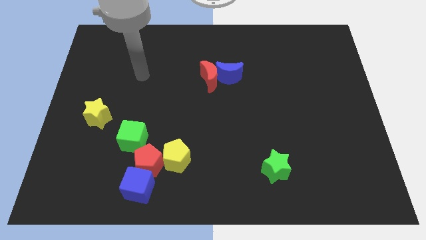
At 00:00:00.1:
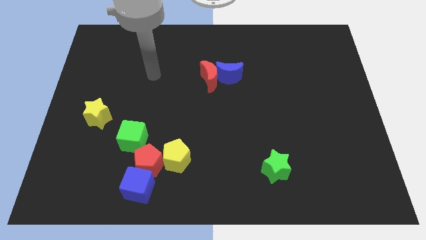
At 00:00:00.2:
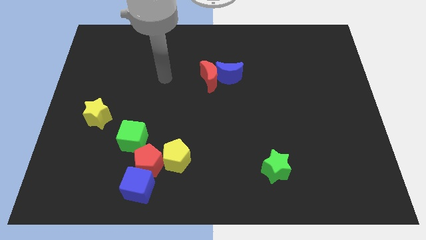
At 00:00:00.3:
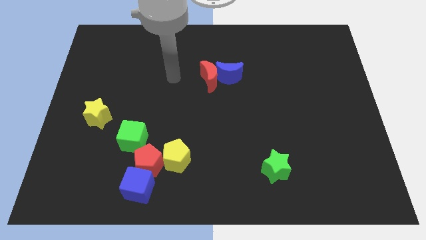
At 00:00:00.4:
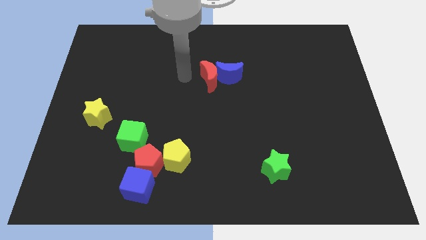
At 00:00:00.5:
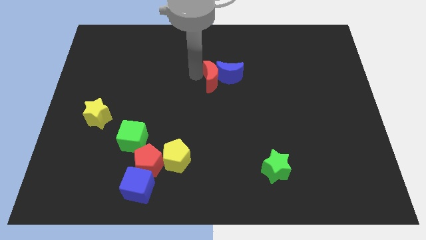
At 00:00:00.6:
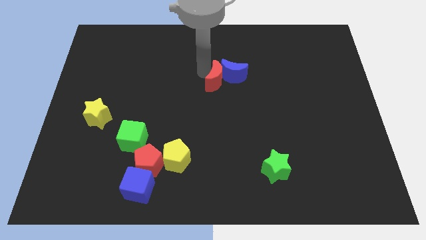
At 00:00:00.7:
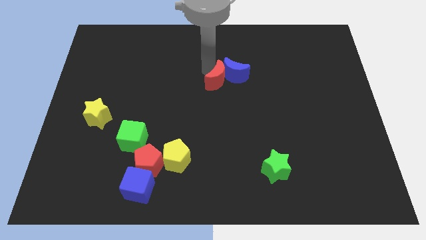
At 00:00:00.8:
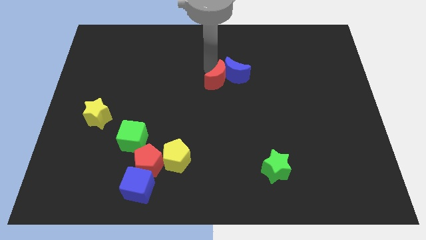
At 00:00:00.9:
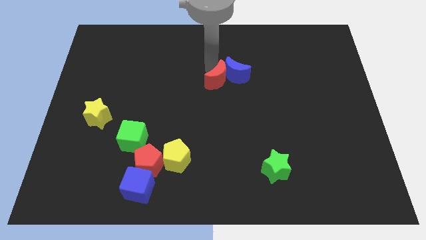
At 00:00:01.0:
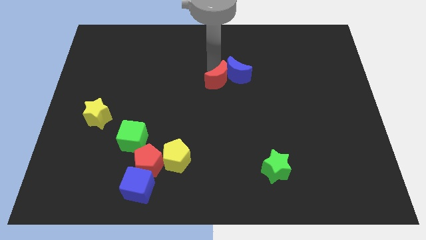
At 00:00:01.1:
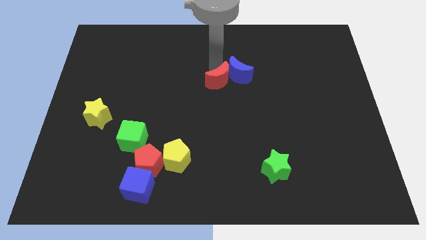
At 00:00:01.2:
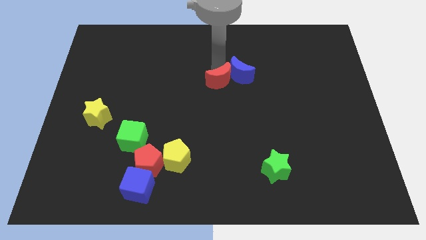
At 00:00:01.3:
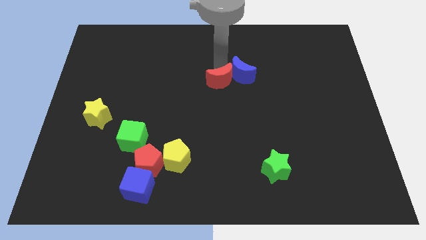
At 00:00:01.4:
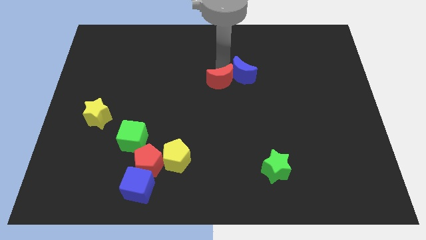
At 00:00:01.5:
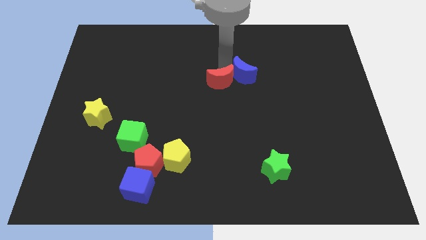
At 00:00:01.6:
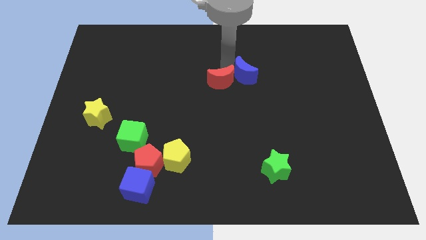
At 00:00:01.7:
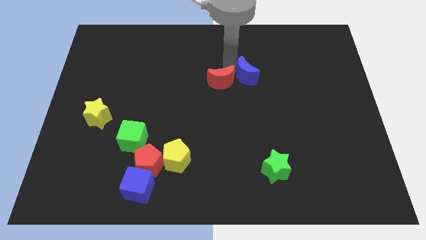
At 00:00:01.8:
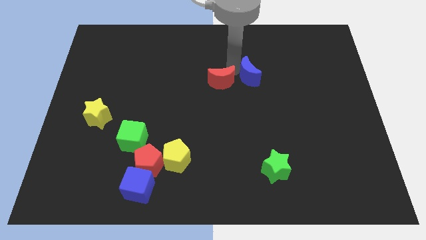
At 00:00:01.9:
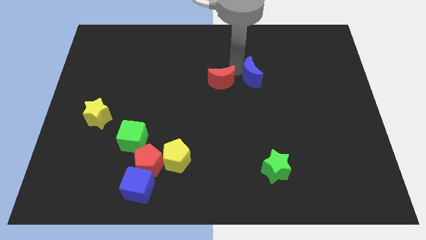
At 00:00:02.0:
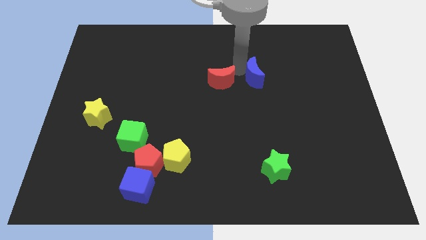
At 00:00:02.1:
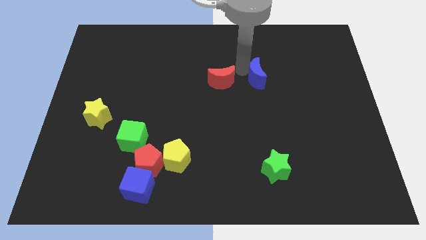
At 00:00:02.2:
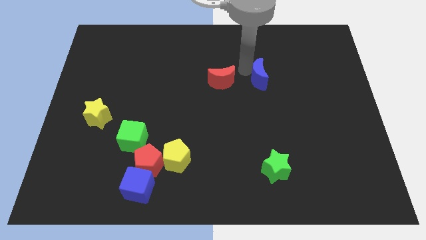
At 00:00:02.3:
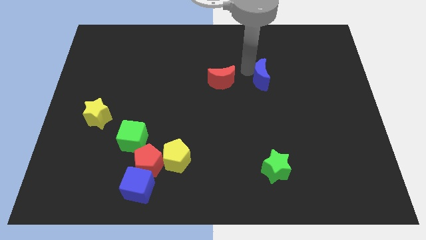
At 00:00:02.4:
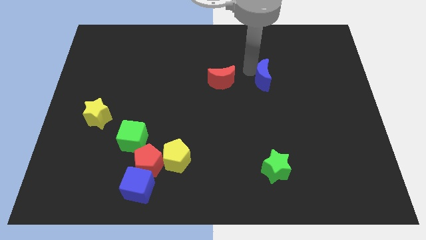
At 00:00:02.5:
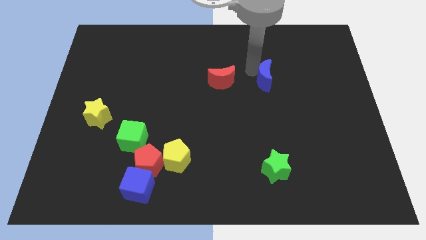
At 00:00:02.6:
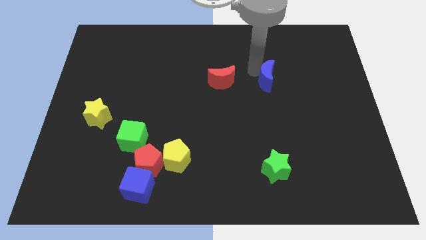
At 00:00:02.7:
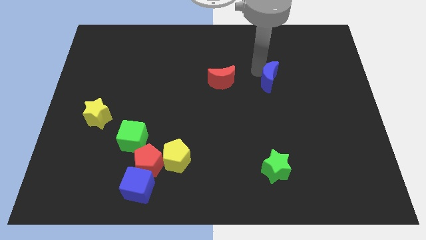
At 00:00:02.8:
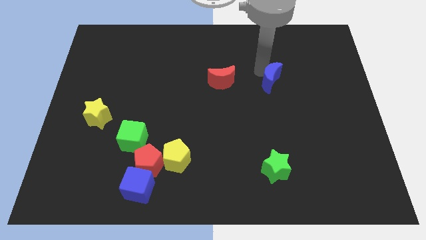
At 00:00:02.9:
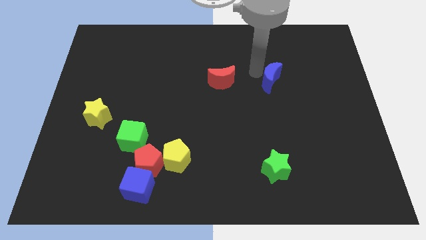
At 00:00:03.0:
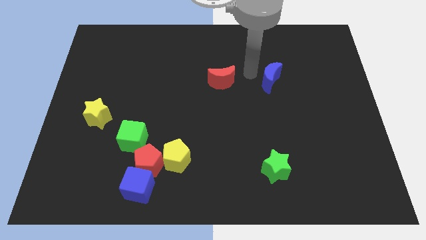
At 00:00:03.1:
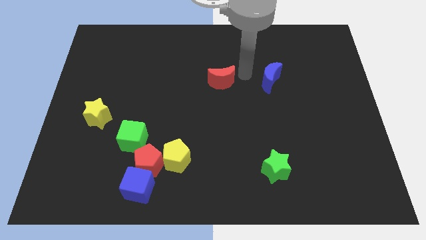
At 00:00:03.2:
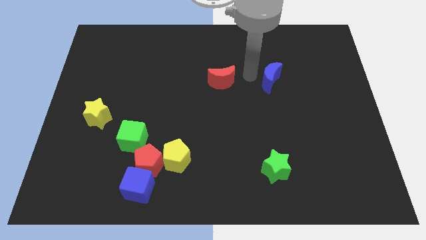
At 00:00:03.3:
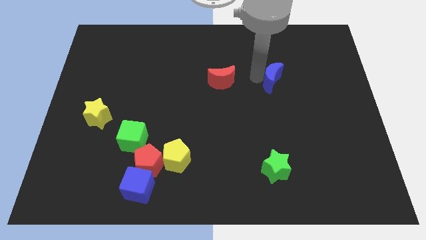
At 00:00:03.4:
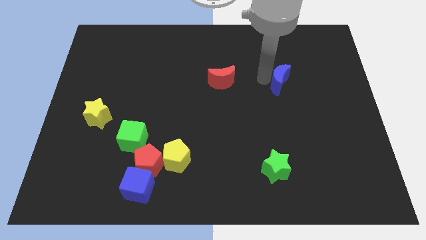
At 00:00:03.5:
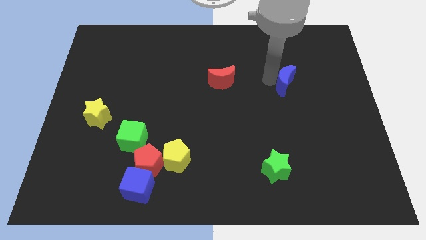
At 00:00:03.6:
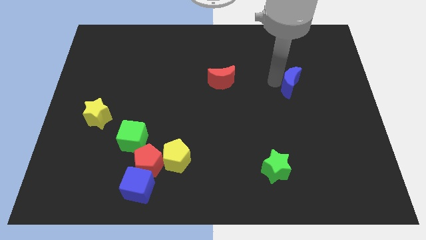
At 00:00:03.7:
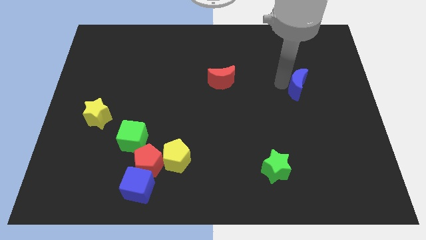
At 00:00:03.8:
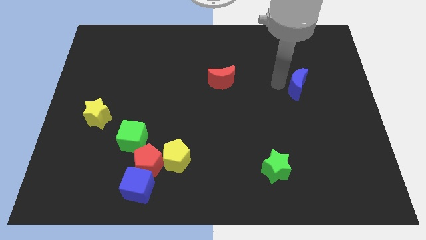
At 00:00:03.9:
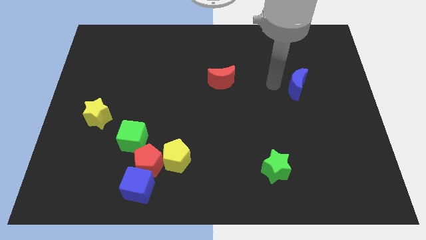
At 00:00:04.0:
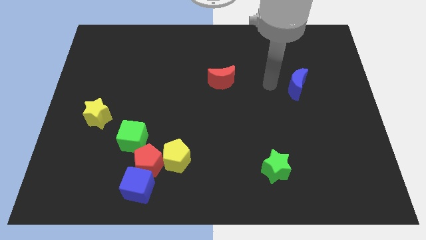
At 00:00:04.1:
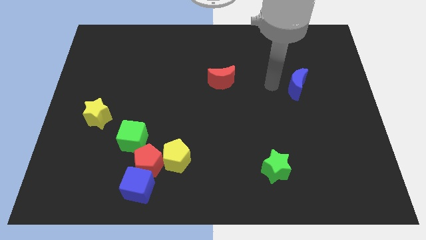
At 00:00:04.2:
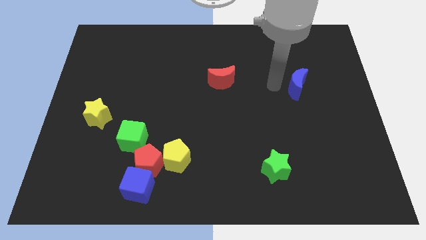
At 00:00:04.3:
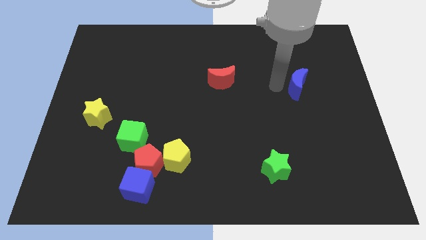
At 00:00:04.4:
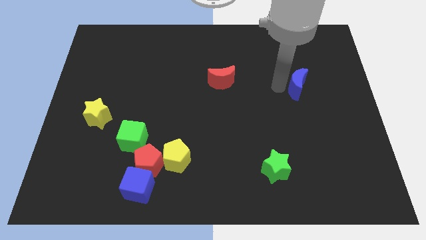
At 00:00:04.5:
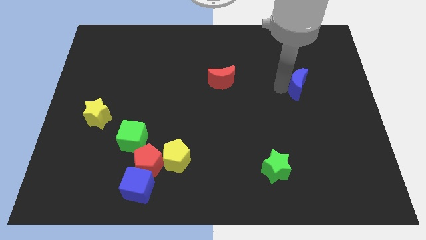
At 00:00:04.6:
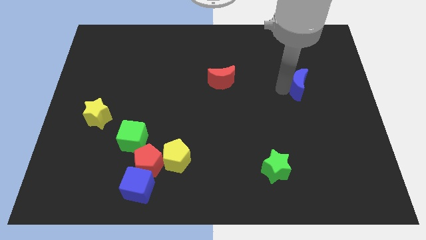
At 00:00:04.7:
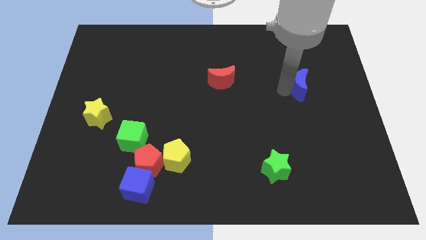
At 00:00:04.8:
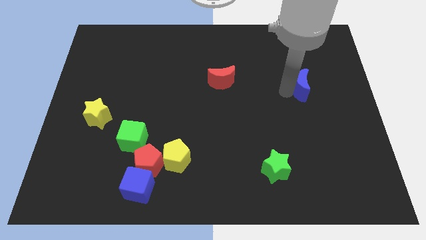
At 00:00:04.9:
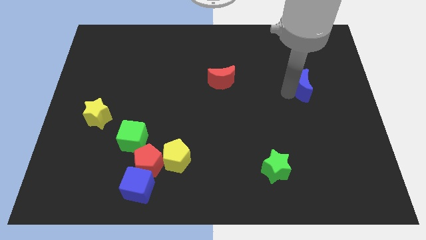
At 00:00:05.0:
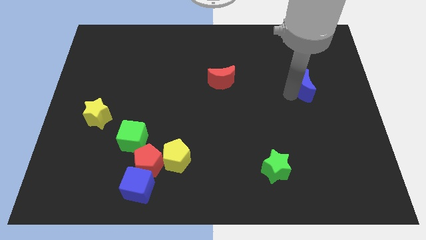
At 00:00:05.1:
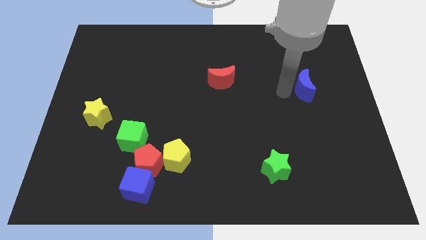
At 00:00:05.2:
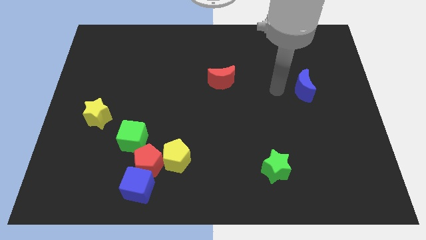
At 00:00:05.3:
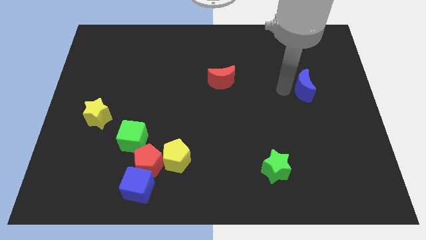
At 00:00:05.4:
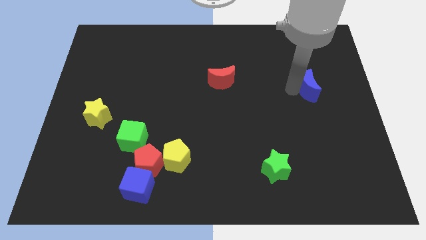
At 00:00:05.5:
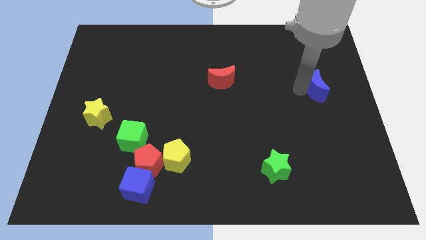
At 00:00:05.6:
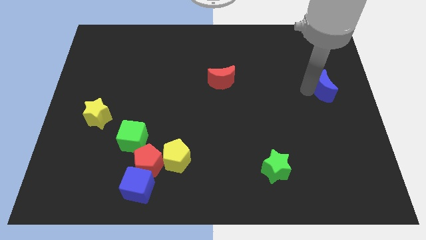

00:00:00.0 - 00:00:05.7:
put the blue moon to the center right

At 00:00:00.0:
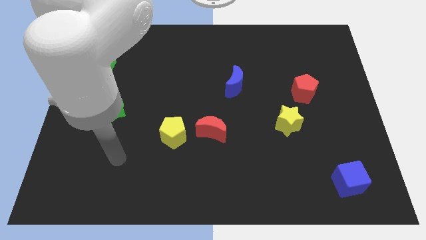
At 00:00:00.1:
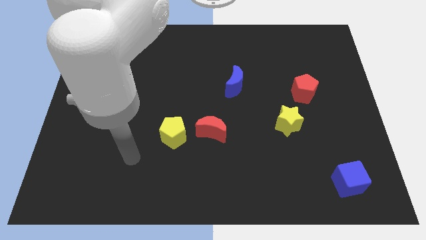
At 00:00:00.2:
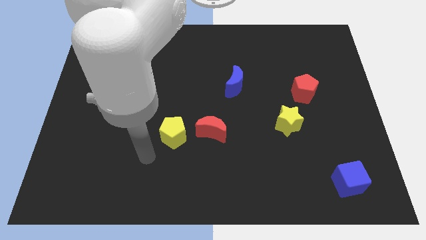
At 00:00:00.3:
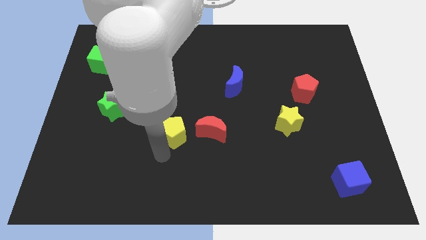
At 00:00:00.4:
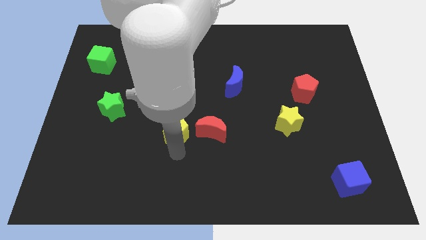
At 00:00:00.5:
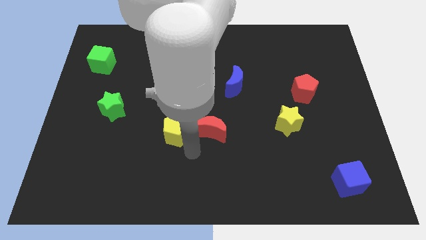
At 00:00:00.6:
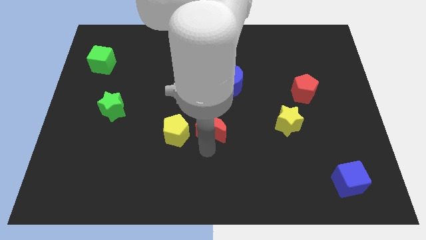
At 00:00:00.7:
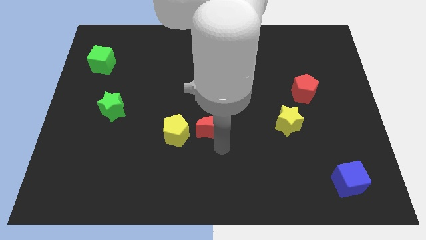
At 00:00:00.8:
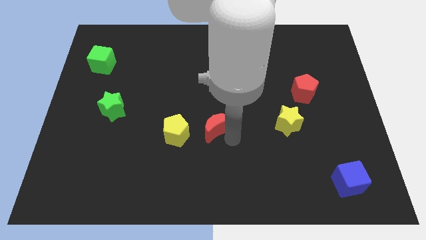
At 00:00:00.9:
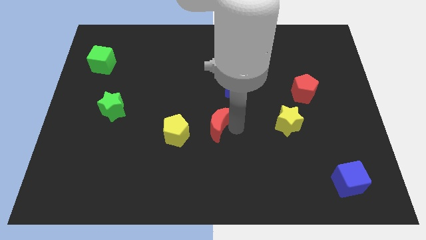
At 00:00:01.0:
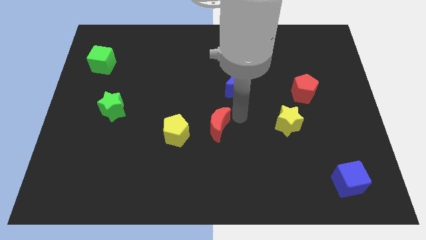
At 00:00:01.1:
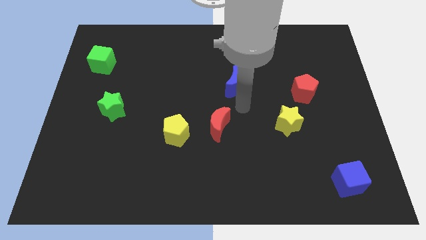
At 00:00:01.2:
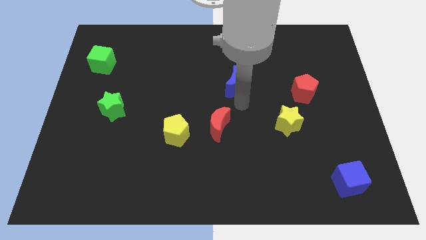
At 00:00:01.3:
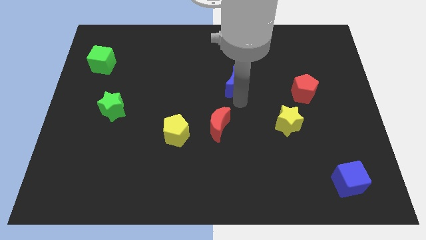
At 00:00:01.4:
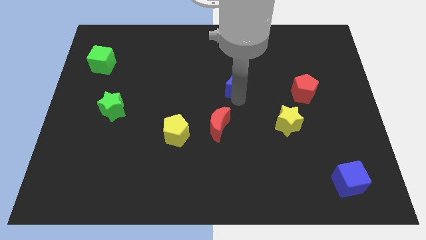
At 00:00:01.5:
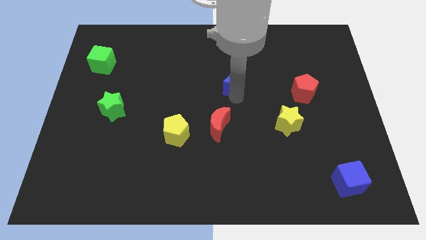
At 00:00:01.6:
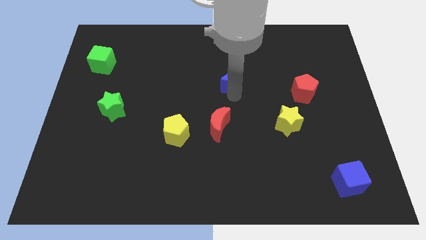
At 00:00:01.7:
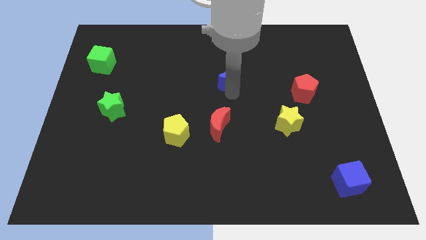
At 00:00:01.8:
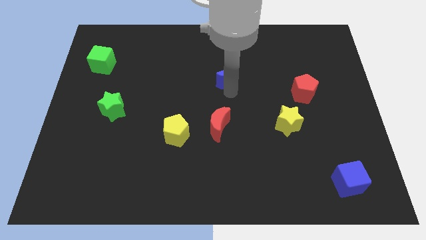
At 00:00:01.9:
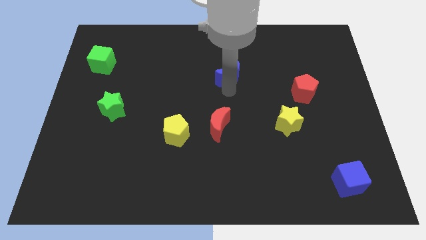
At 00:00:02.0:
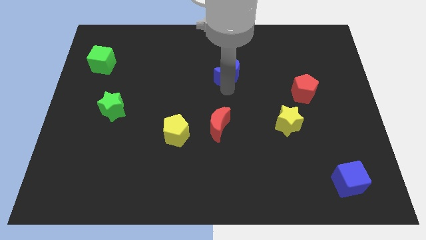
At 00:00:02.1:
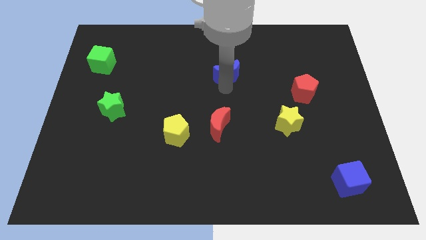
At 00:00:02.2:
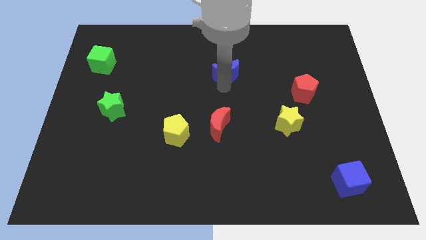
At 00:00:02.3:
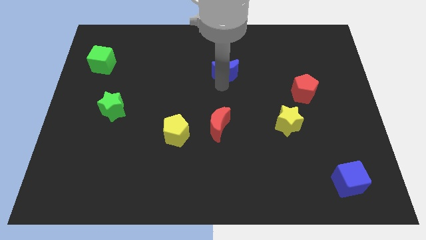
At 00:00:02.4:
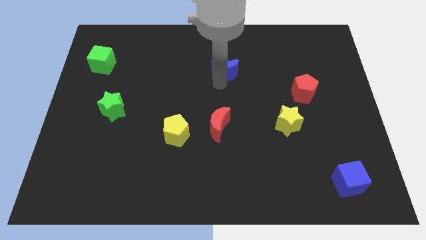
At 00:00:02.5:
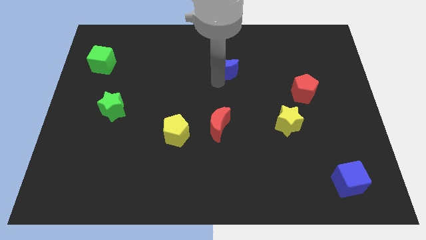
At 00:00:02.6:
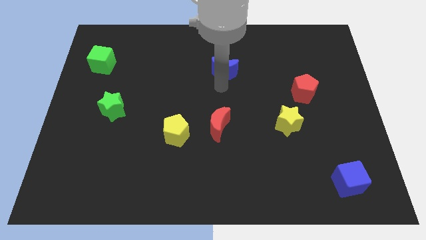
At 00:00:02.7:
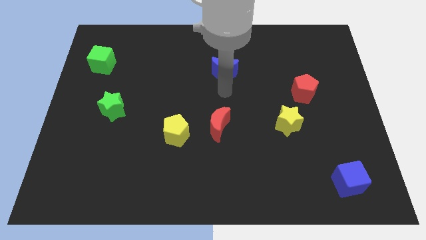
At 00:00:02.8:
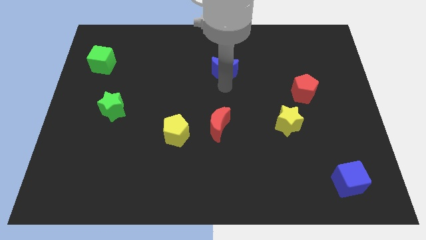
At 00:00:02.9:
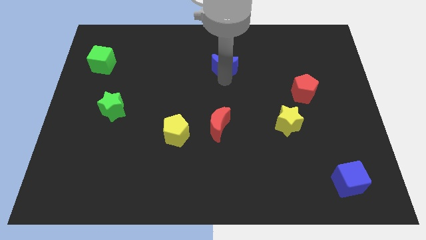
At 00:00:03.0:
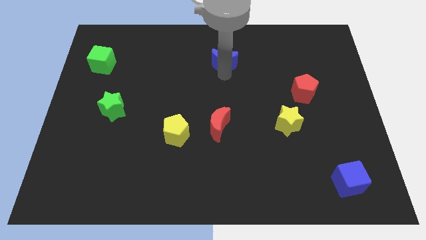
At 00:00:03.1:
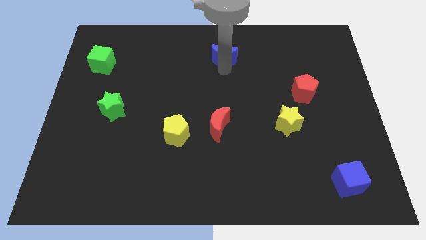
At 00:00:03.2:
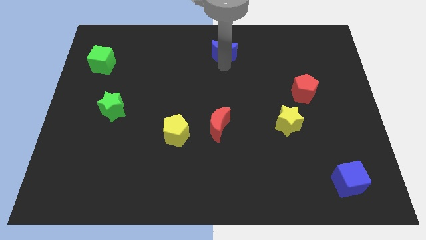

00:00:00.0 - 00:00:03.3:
slide the blue moon to the top side
